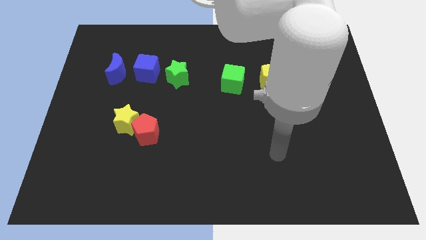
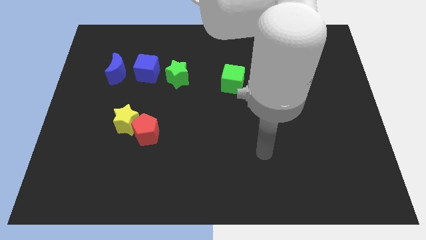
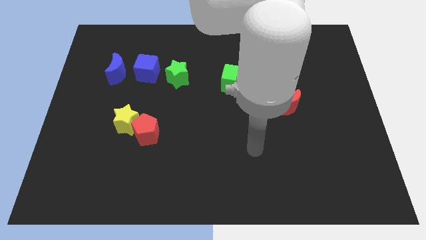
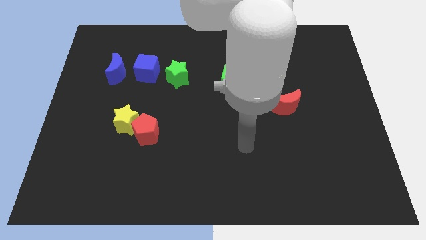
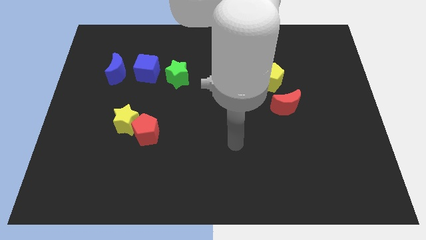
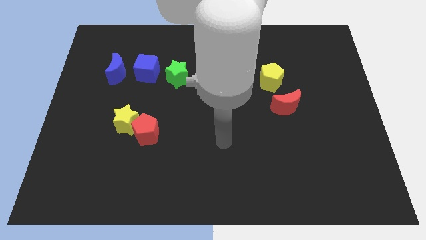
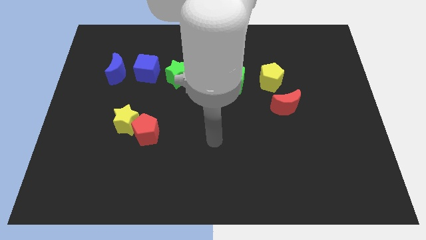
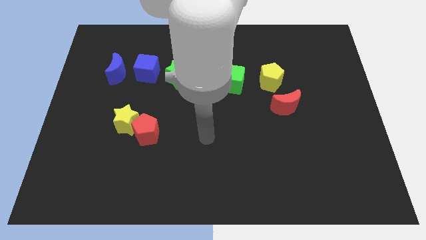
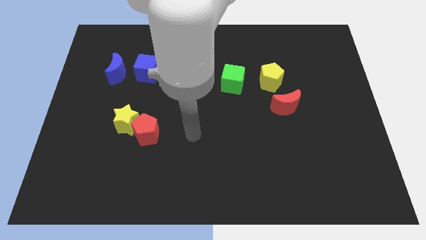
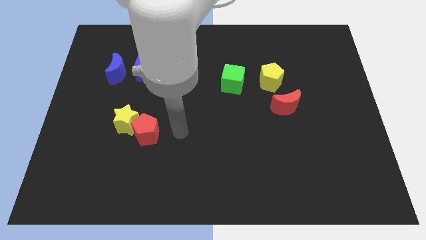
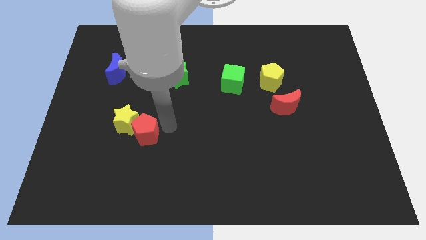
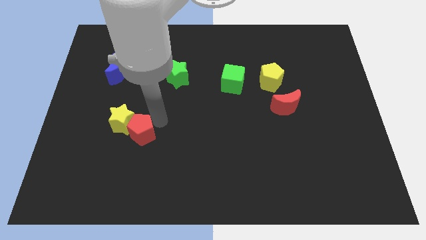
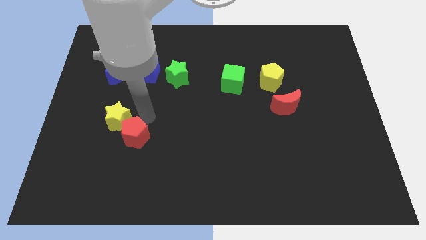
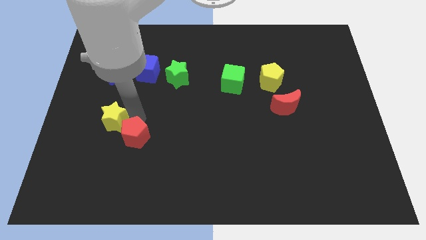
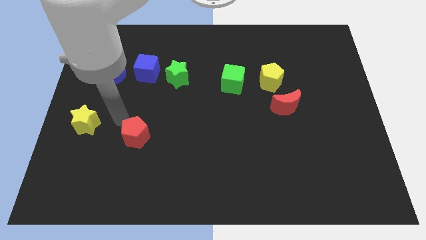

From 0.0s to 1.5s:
separate the red pentagon from the yellow star

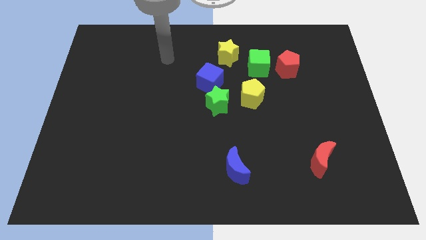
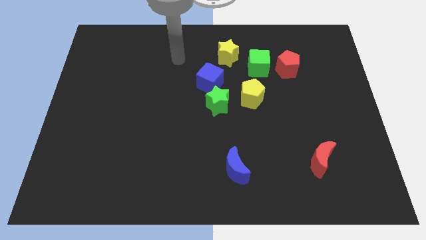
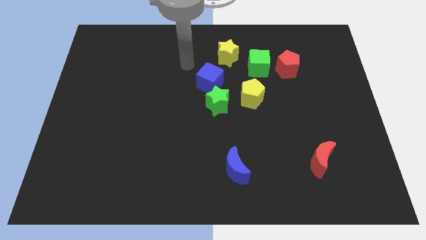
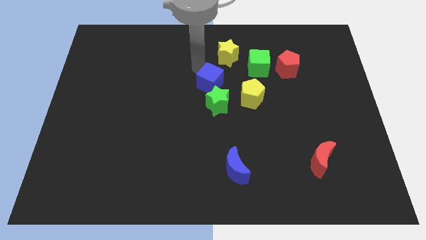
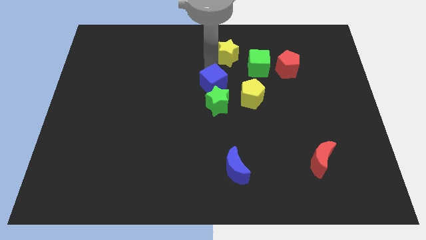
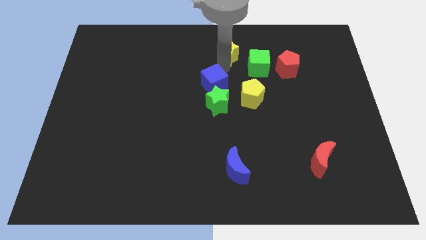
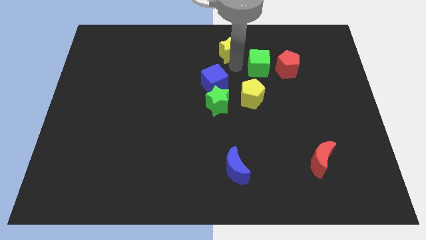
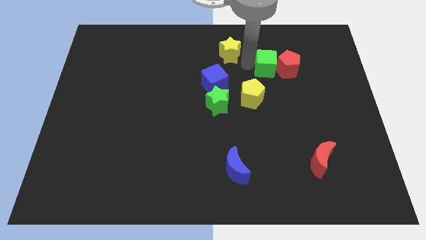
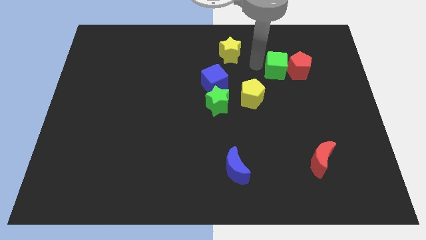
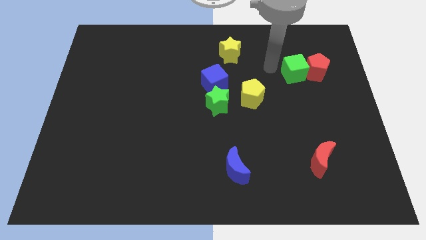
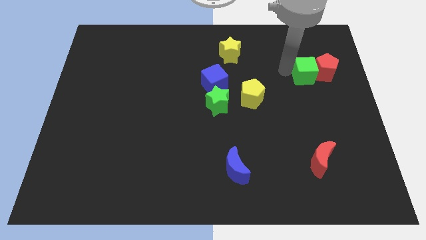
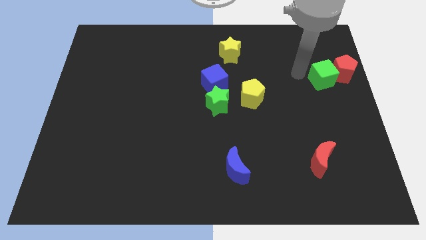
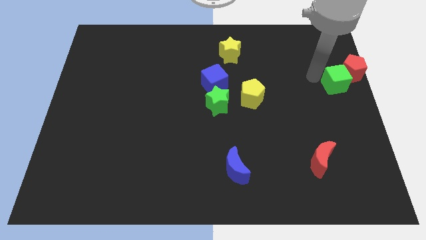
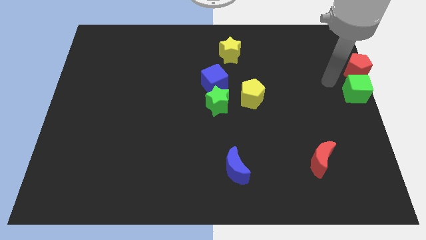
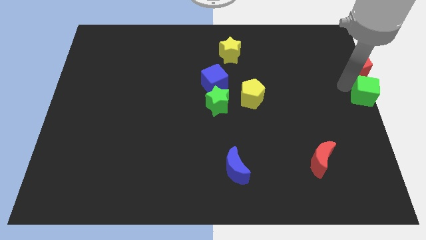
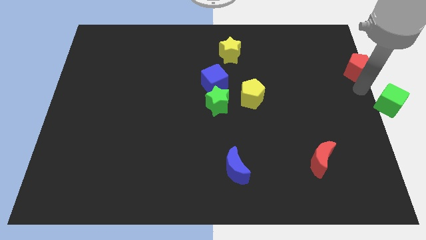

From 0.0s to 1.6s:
pull the red pentagon apart from the green cube

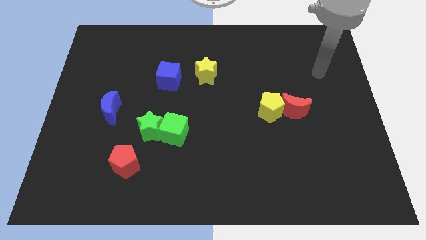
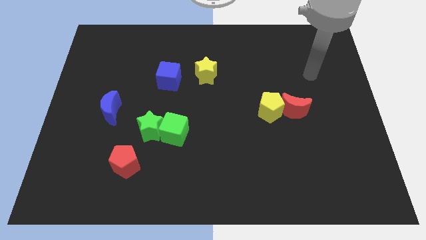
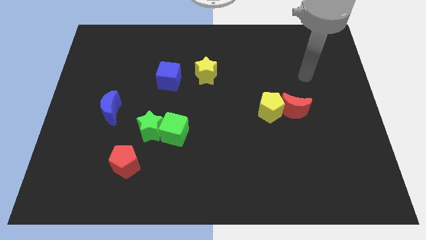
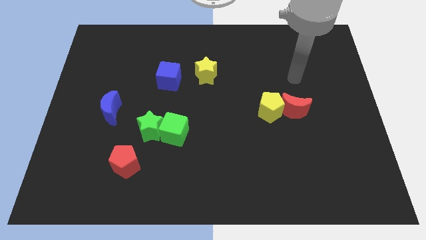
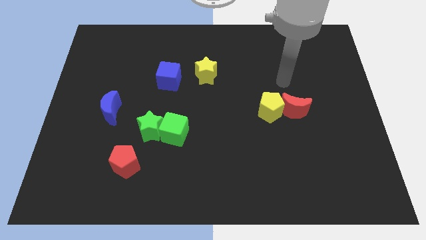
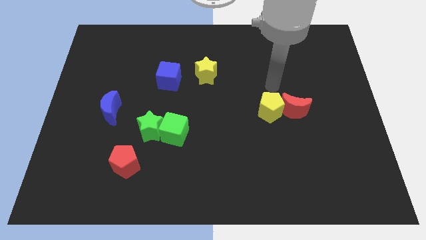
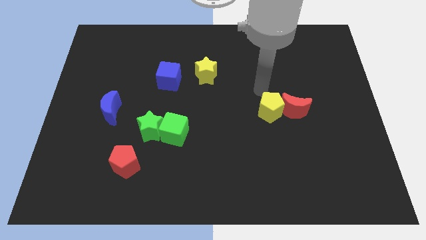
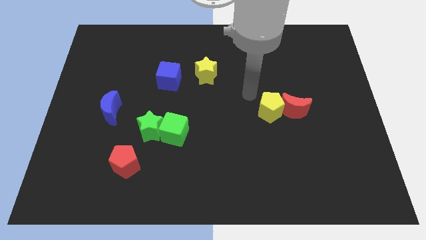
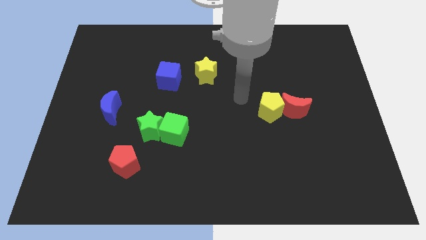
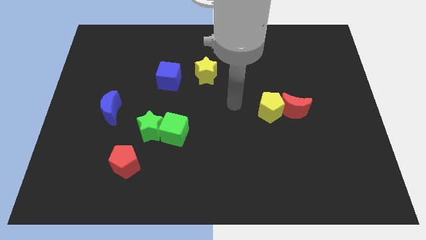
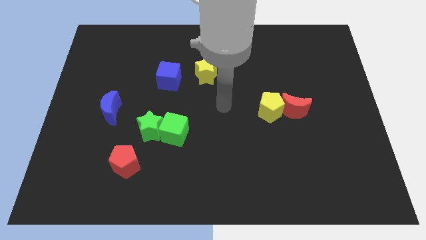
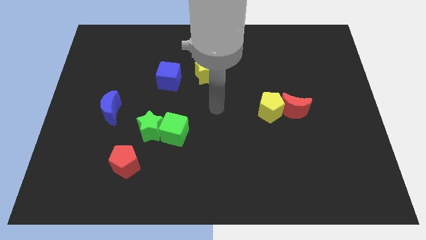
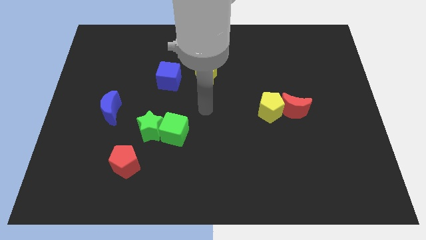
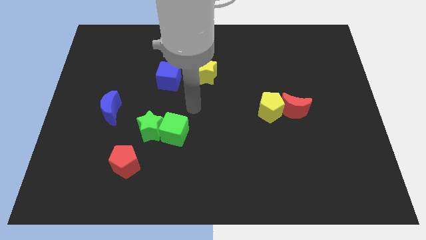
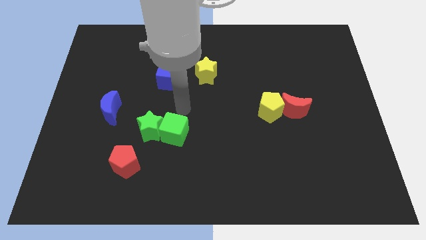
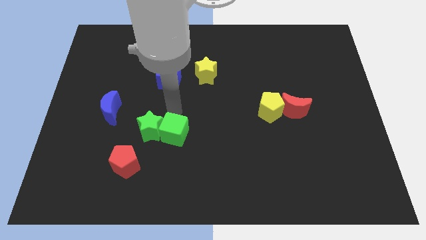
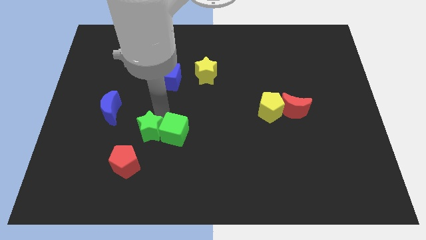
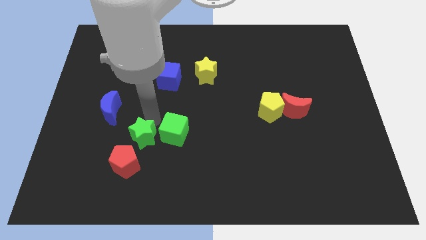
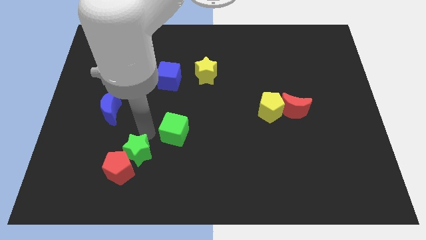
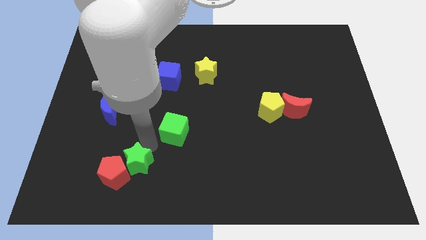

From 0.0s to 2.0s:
move the green cube away from the green star

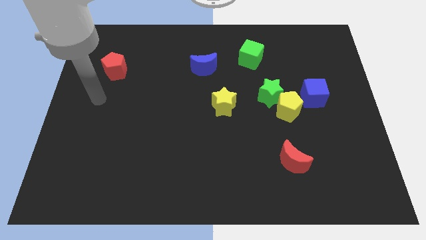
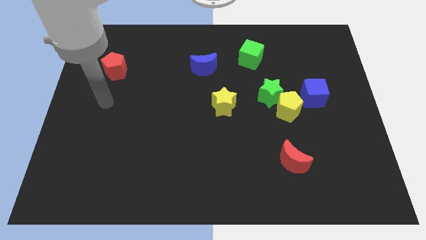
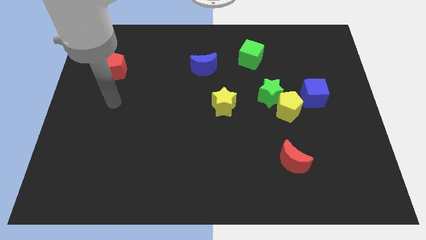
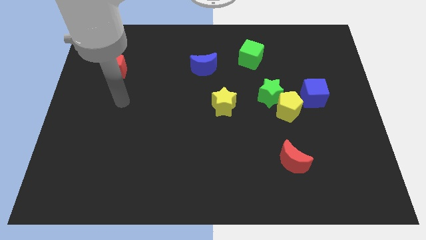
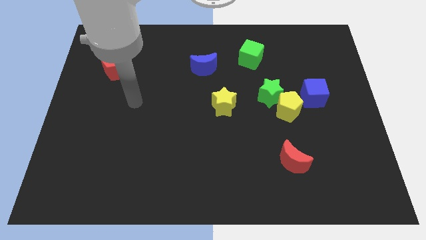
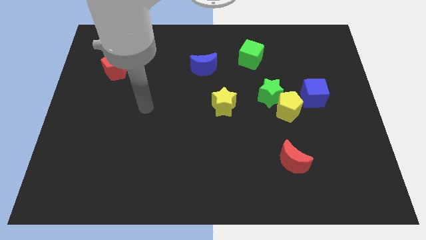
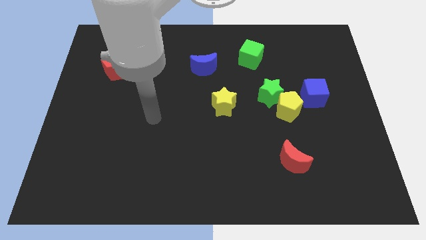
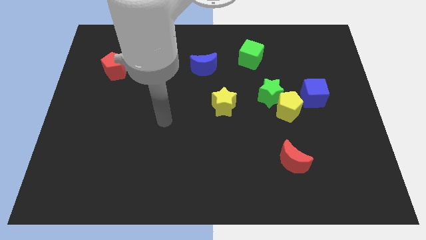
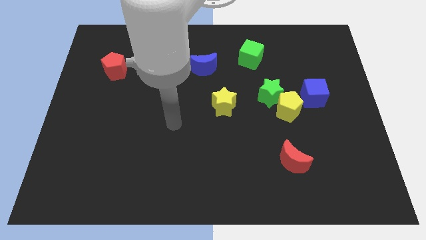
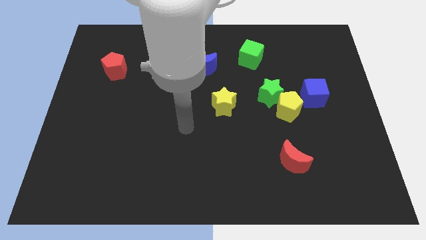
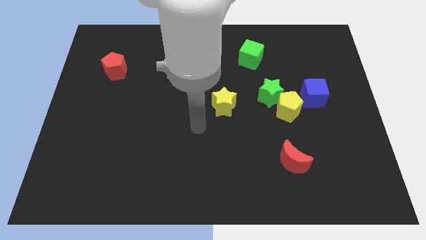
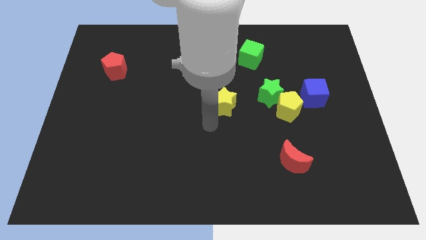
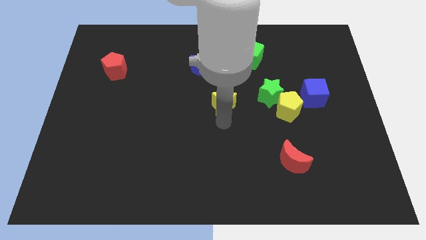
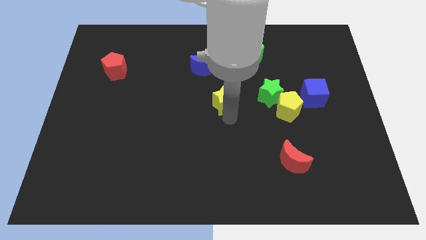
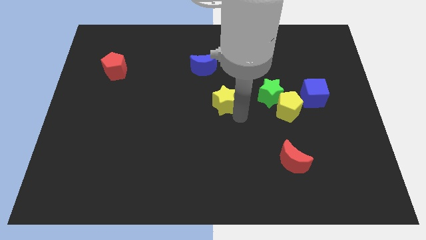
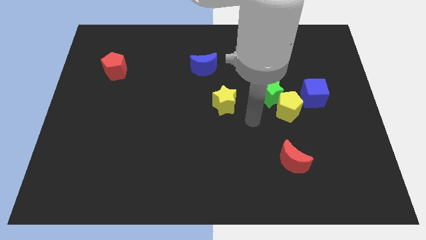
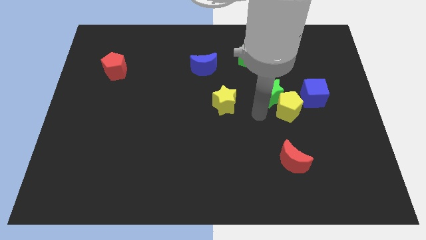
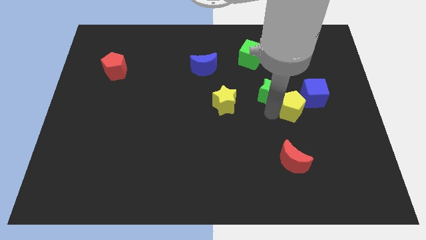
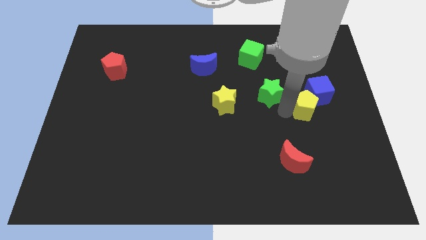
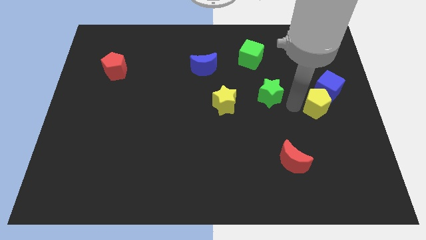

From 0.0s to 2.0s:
move the green star away from the yellow pentagon

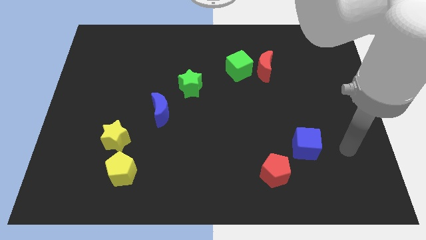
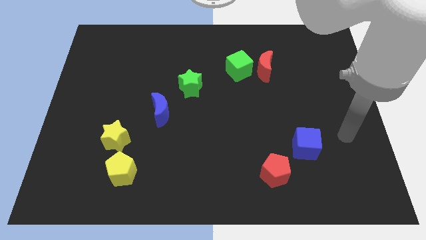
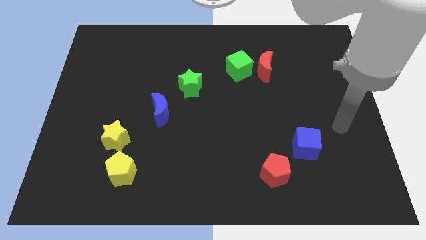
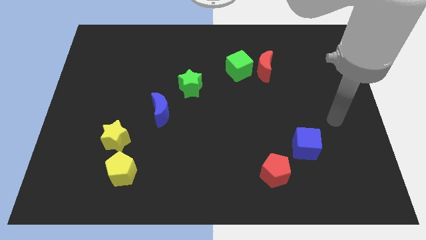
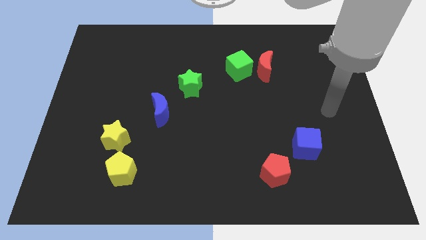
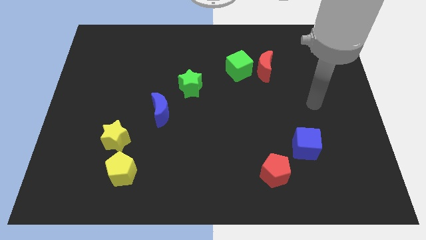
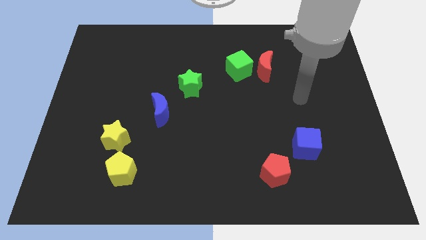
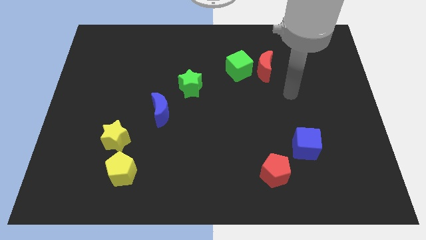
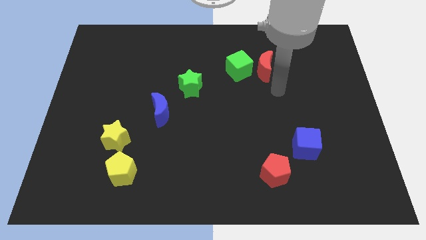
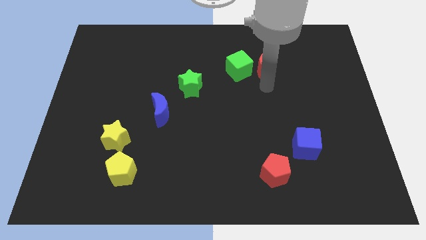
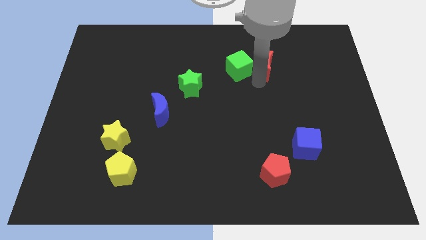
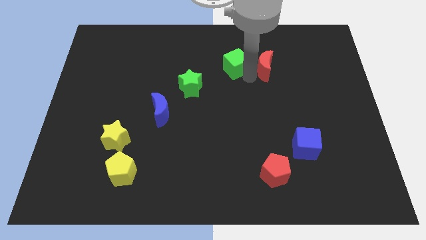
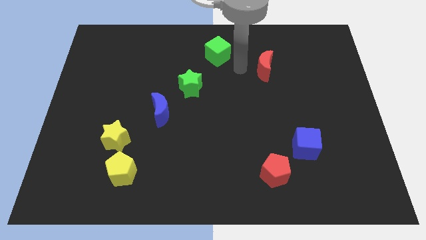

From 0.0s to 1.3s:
move the red moon away from the green cube

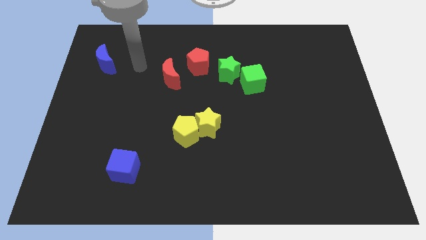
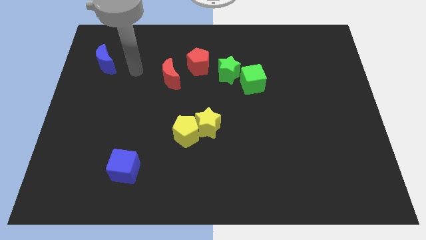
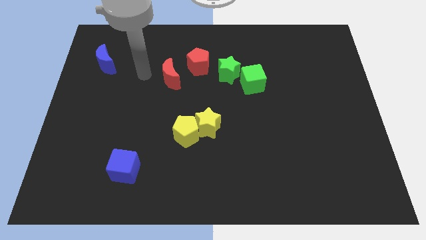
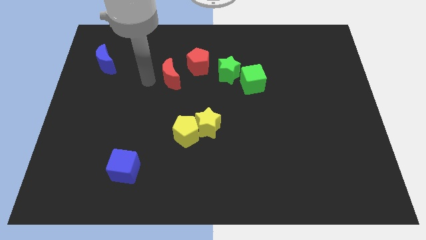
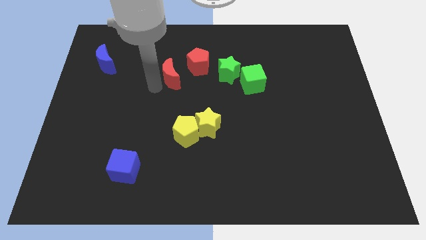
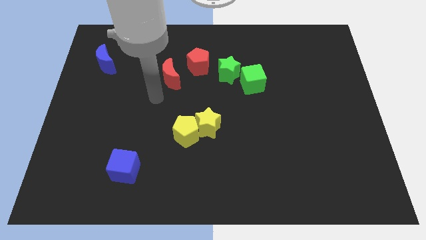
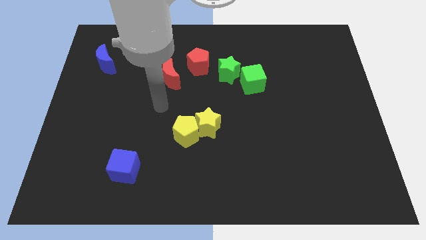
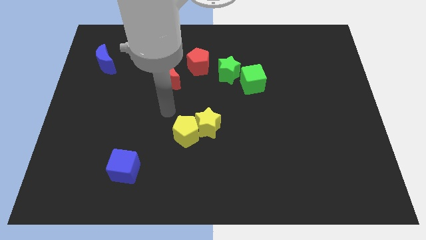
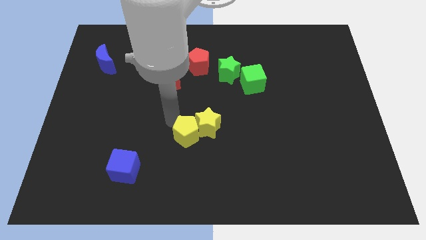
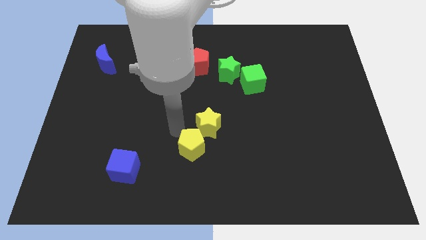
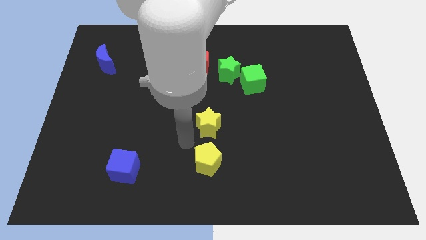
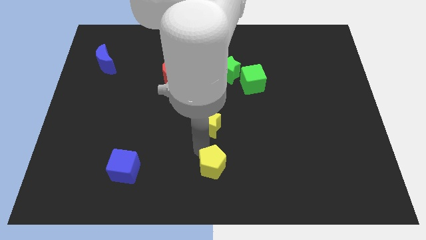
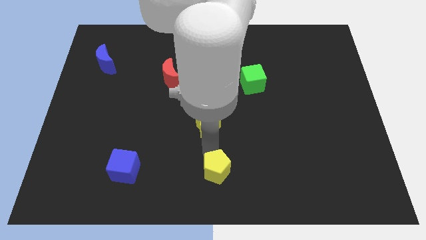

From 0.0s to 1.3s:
move the yellow star away from the yellow pentagon
